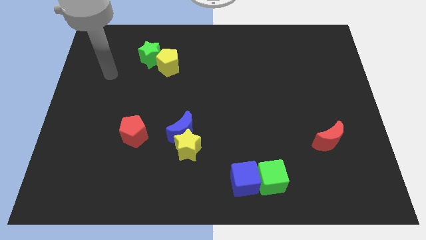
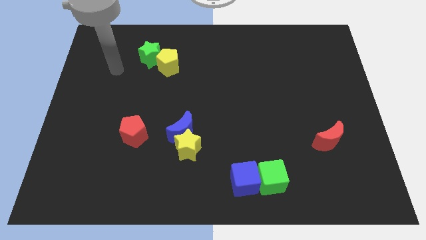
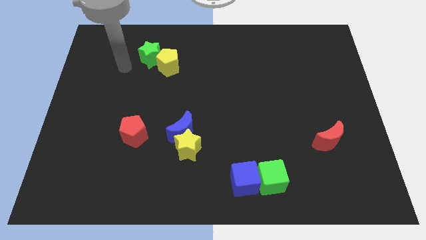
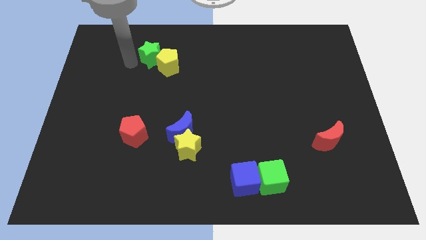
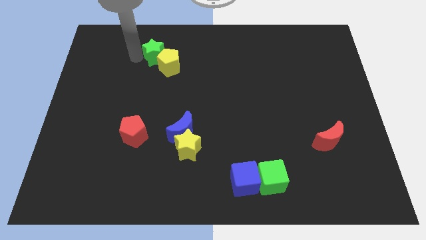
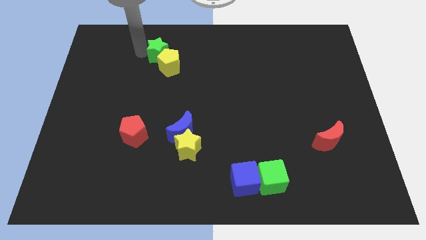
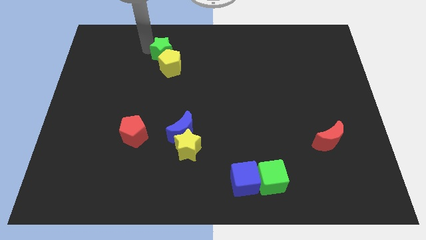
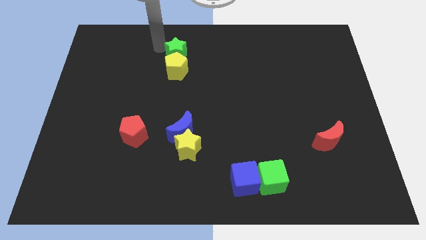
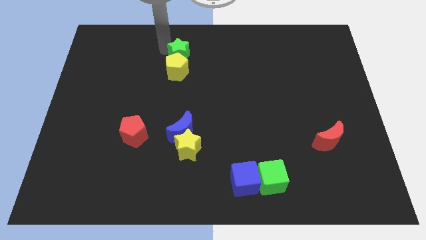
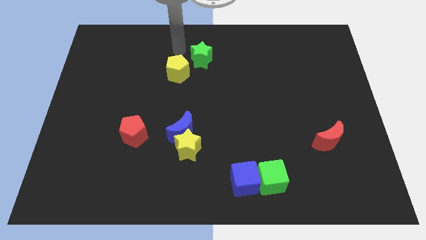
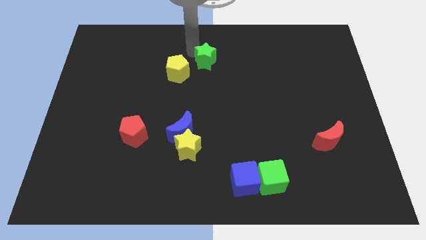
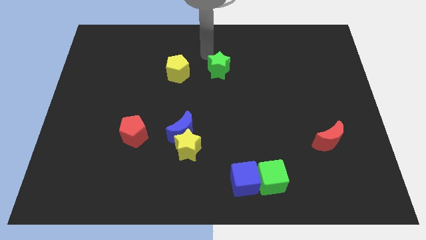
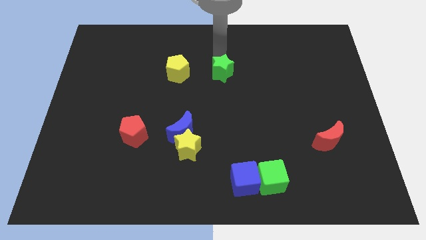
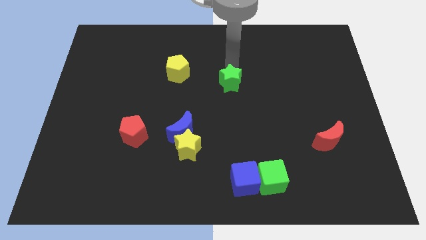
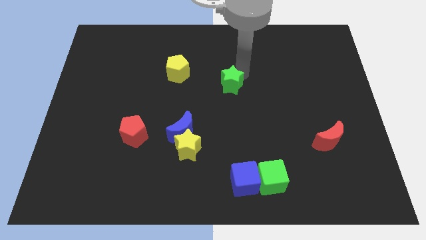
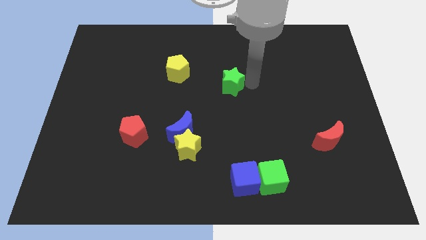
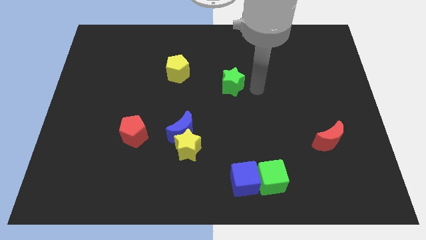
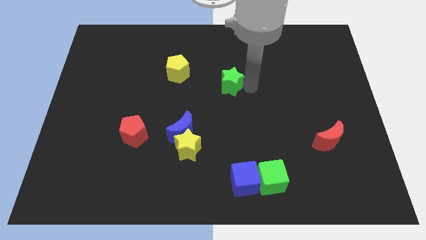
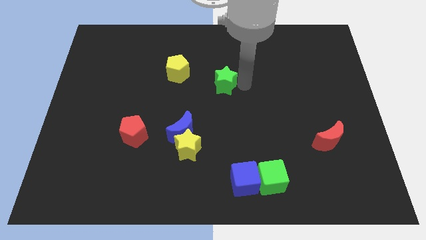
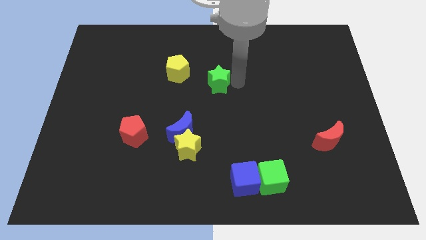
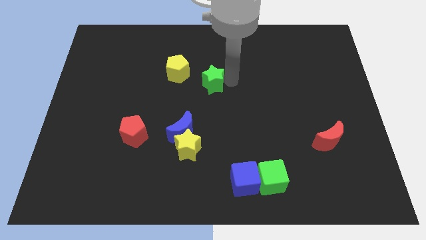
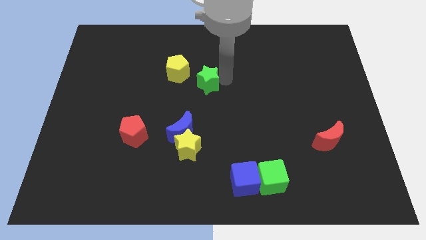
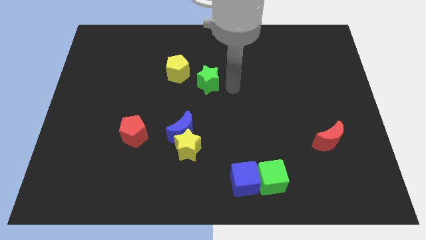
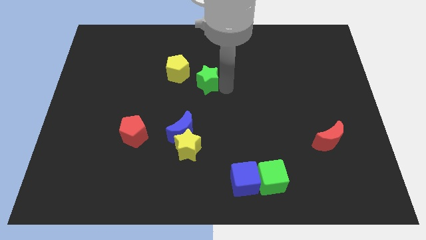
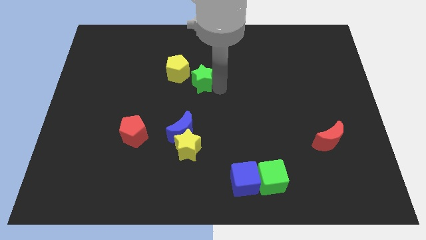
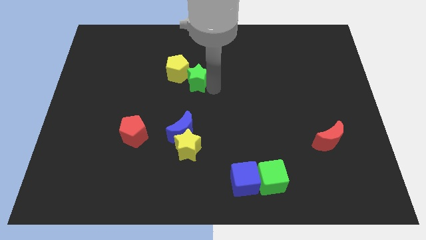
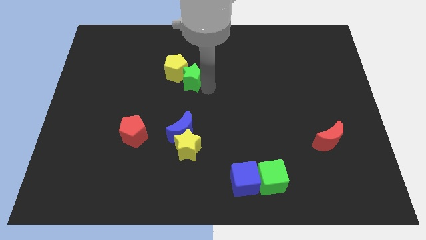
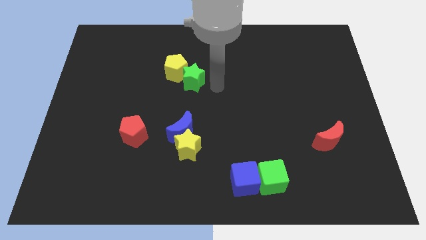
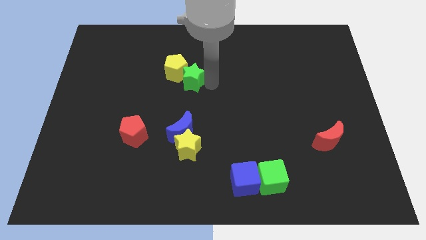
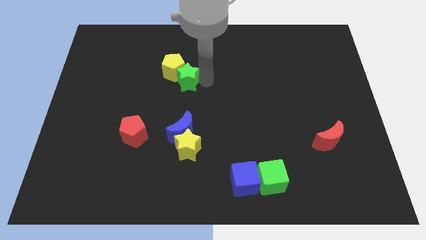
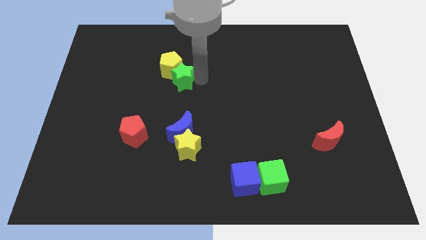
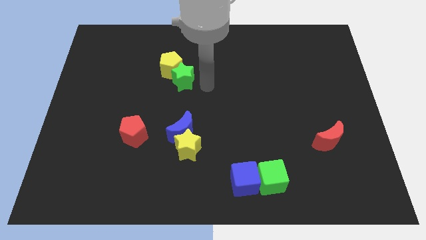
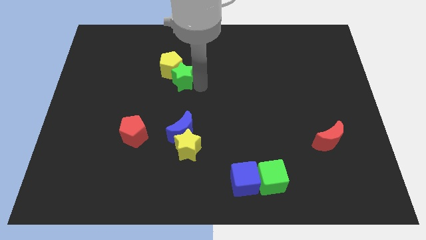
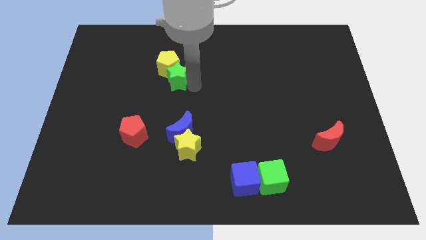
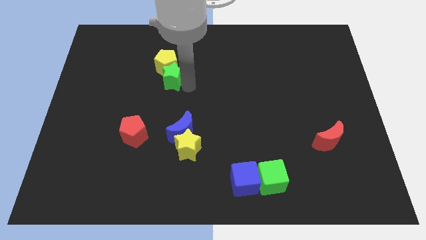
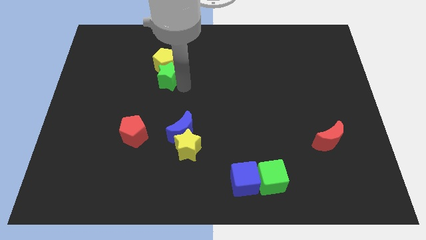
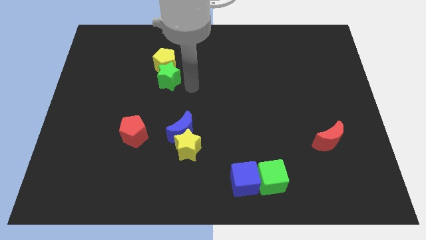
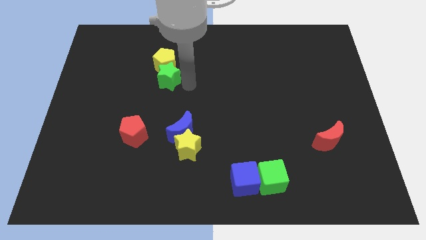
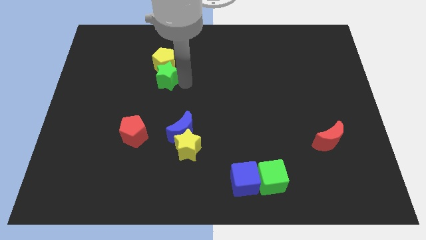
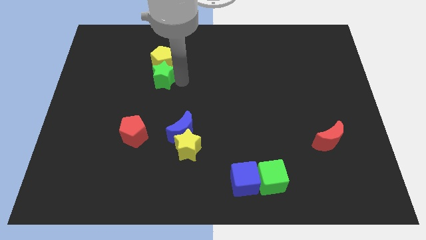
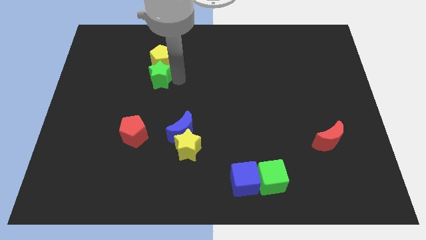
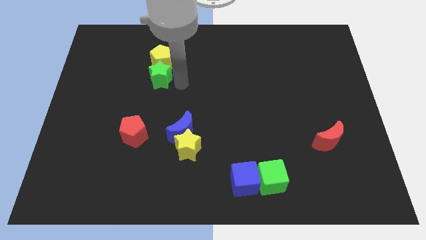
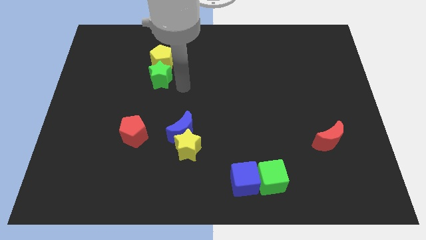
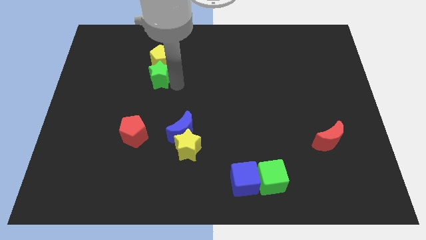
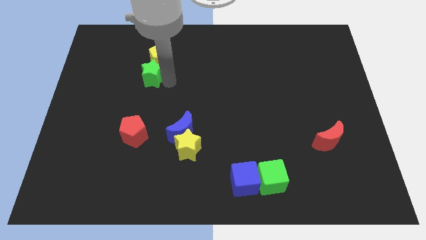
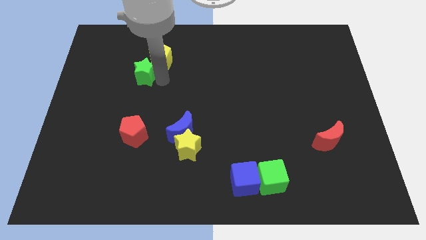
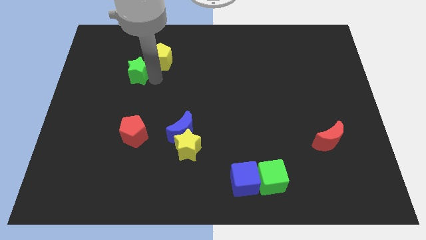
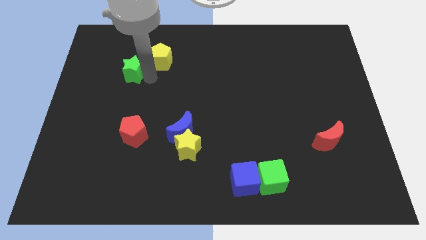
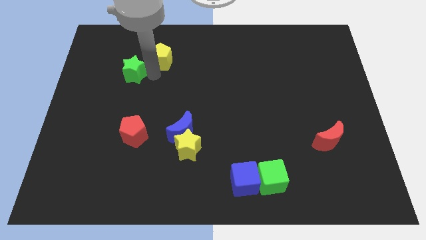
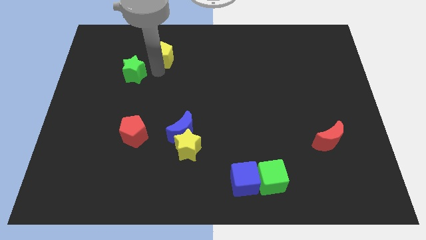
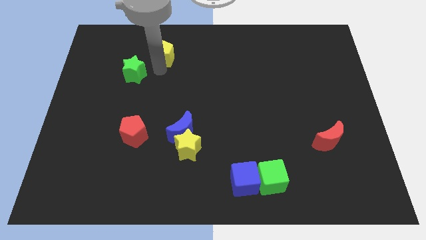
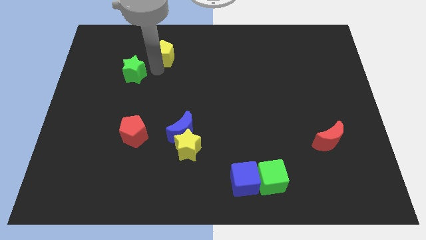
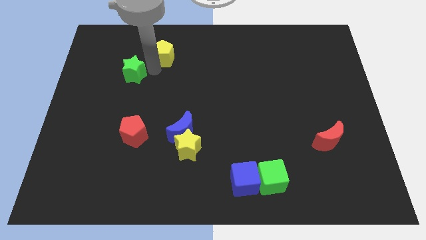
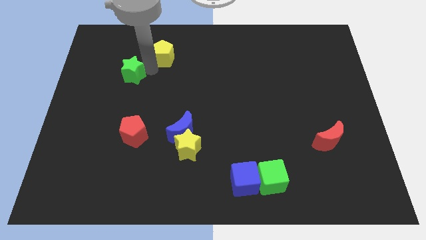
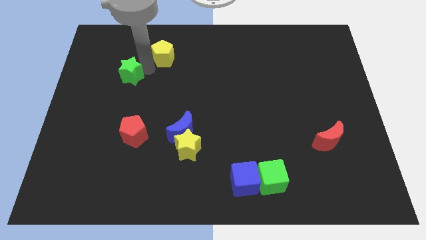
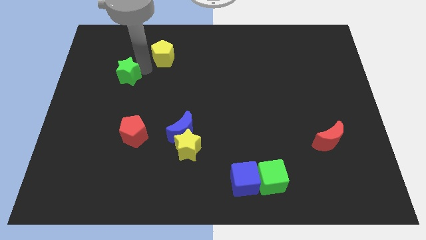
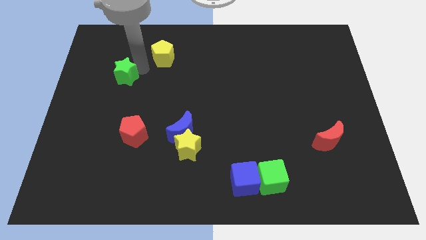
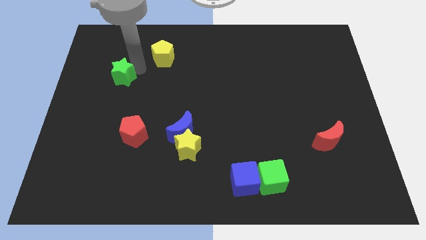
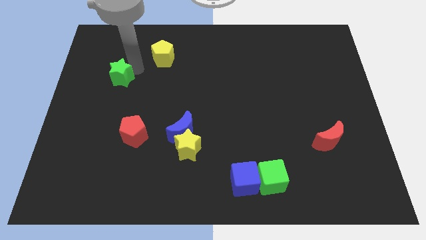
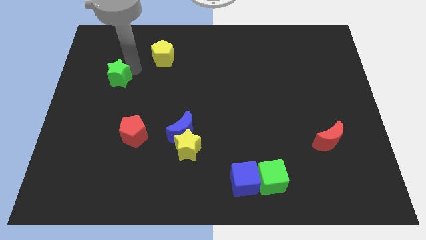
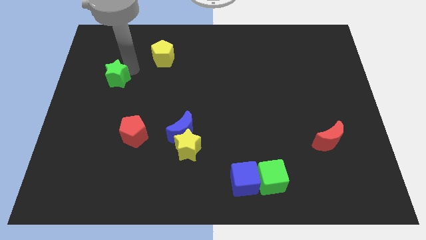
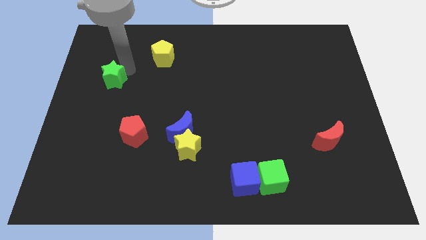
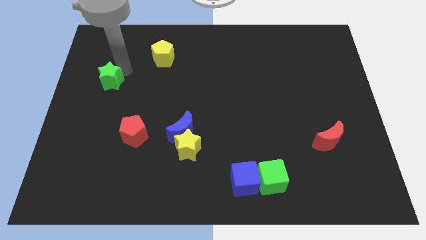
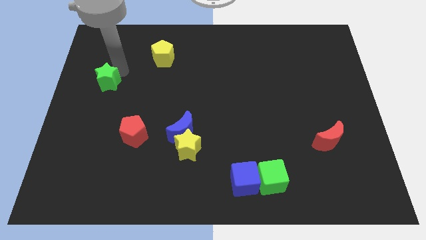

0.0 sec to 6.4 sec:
move the green star to the center left
